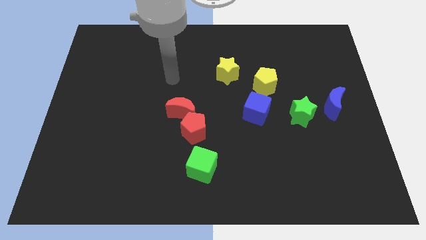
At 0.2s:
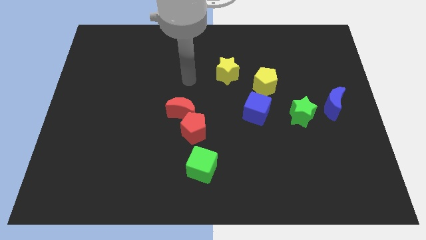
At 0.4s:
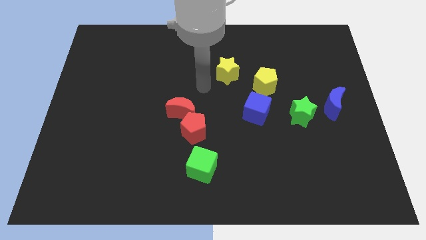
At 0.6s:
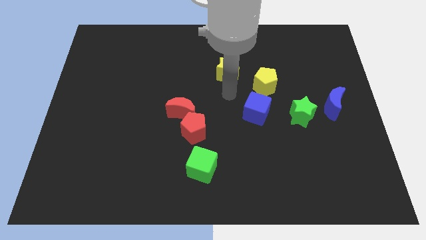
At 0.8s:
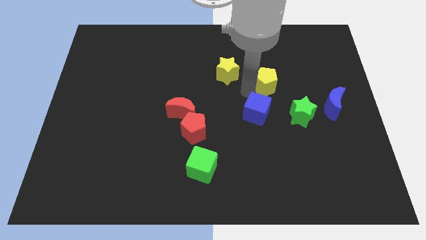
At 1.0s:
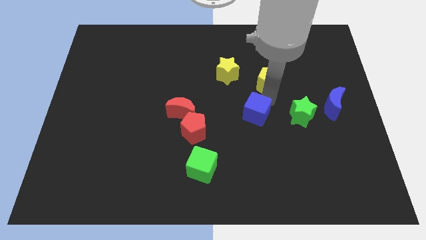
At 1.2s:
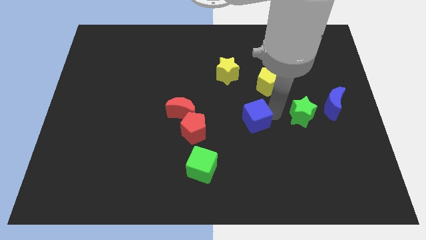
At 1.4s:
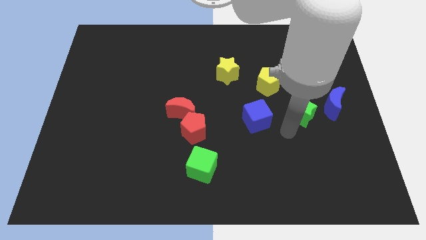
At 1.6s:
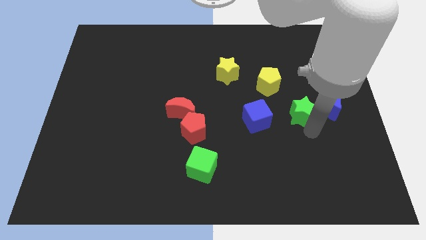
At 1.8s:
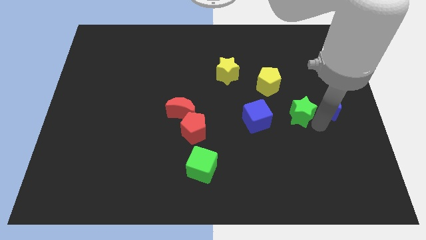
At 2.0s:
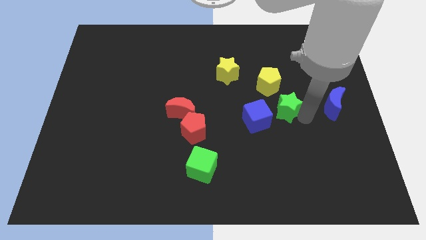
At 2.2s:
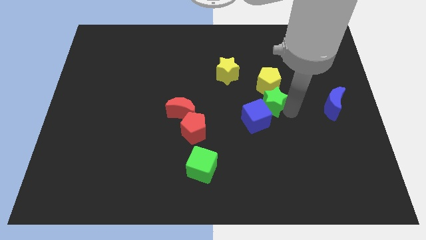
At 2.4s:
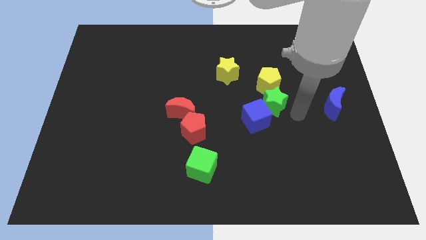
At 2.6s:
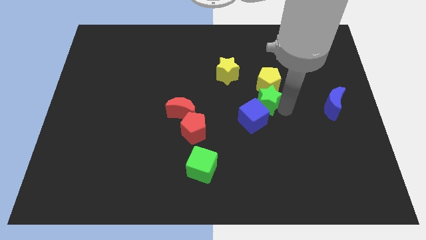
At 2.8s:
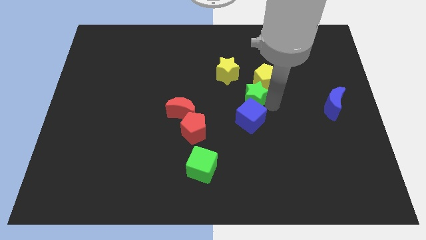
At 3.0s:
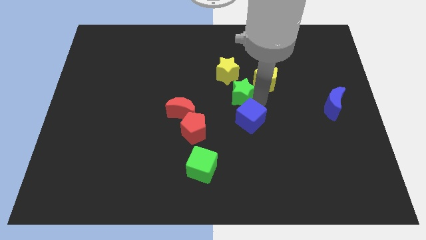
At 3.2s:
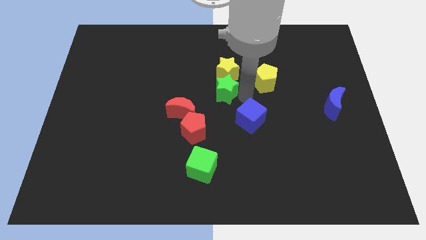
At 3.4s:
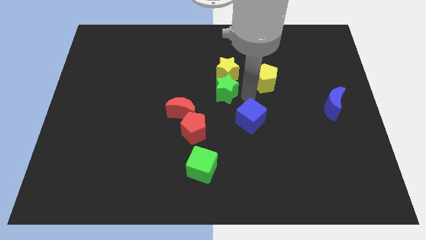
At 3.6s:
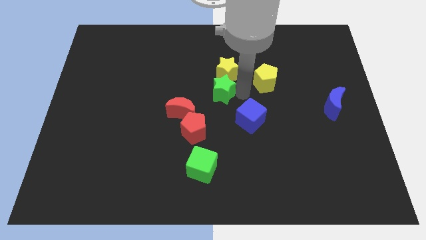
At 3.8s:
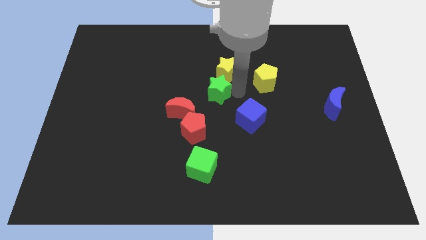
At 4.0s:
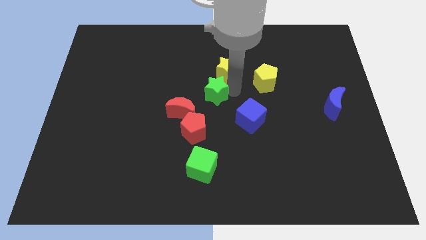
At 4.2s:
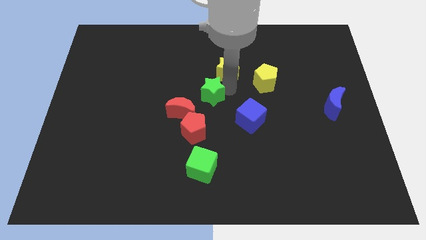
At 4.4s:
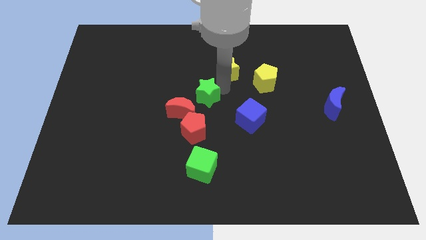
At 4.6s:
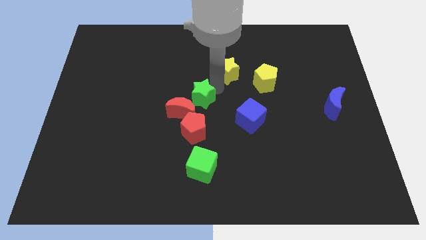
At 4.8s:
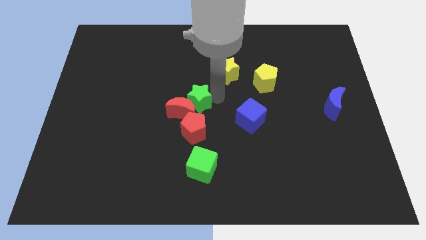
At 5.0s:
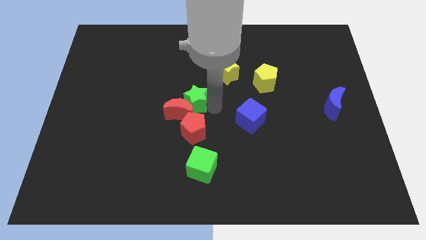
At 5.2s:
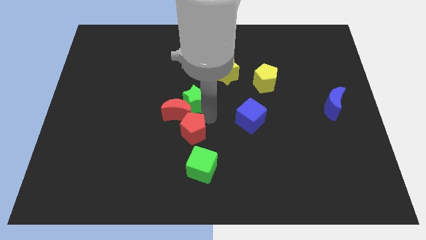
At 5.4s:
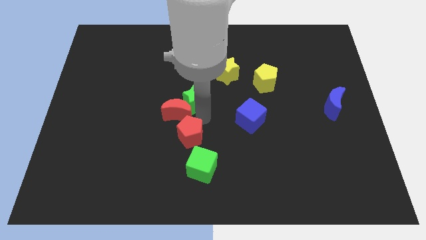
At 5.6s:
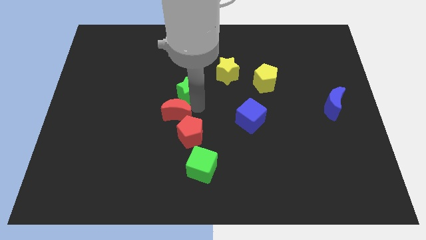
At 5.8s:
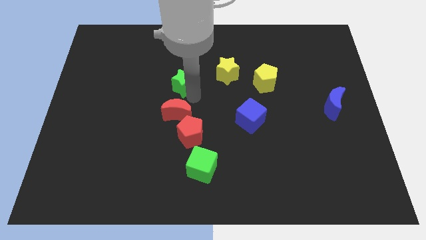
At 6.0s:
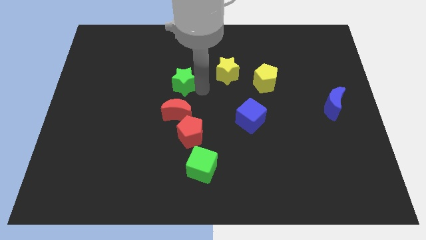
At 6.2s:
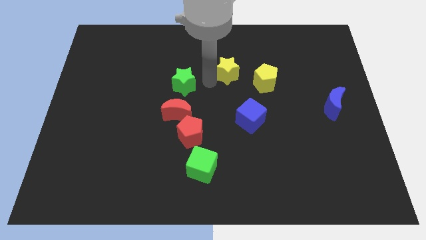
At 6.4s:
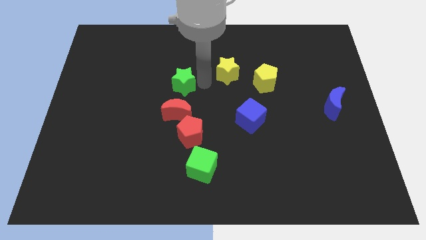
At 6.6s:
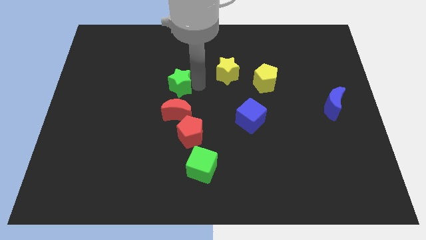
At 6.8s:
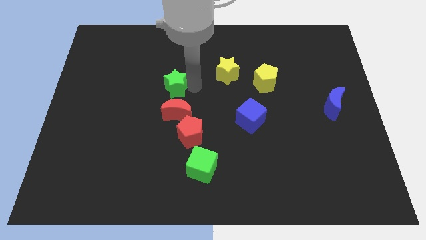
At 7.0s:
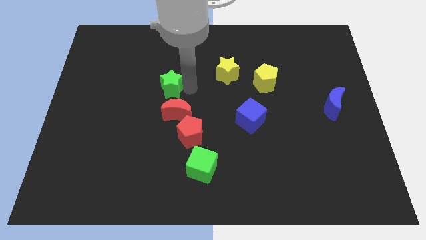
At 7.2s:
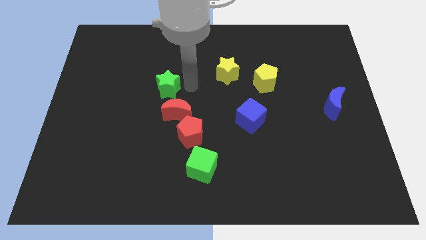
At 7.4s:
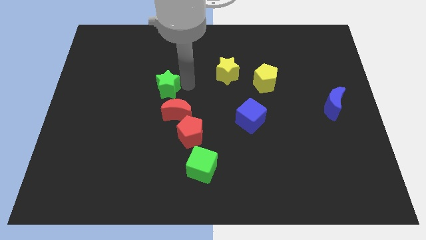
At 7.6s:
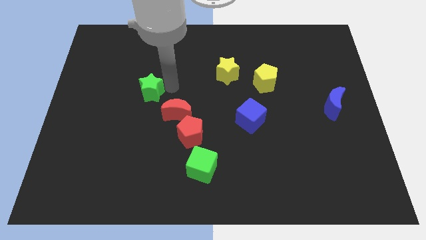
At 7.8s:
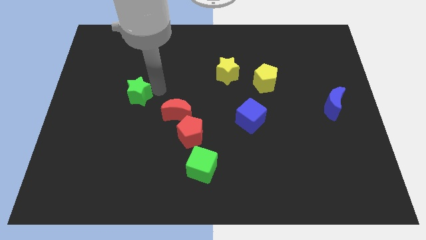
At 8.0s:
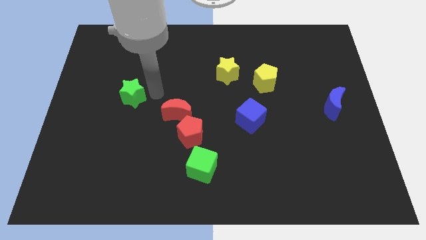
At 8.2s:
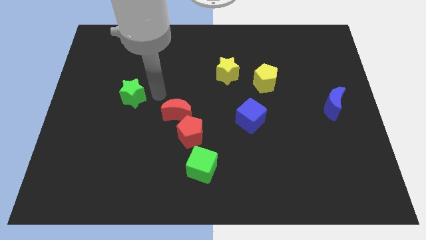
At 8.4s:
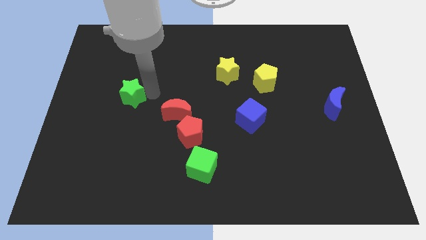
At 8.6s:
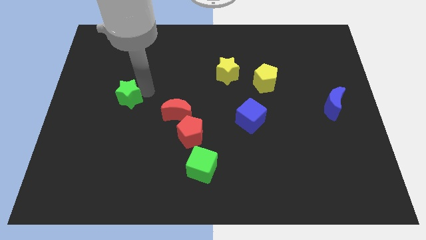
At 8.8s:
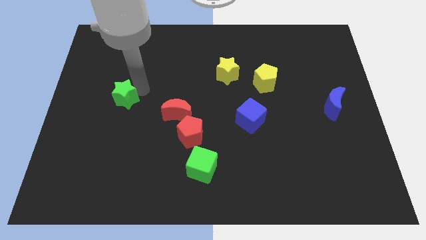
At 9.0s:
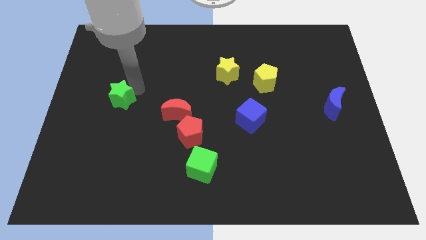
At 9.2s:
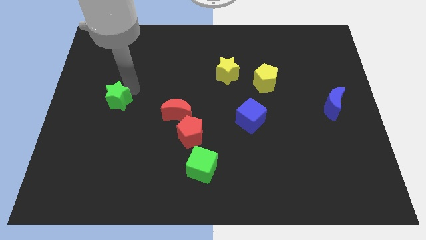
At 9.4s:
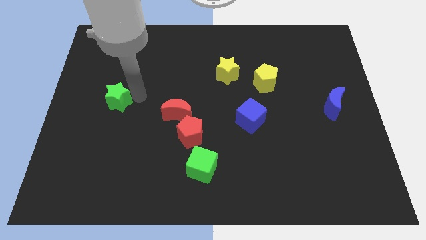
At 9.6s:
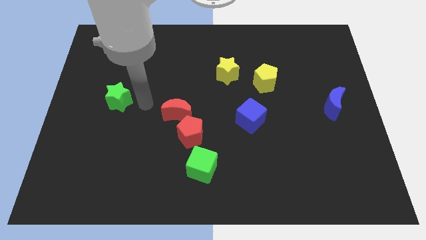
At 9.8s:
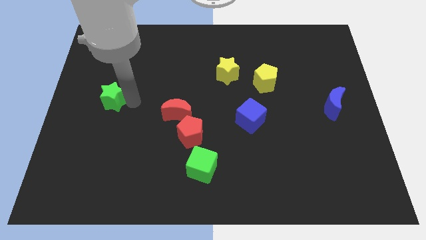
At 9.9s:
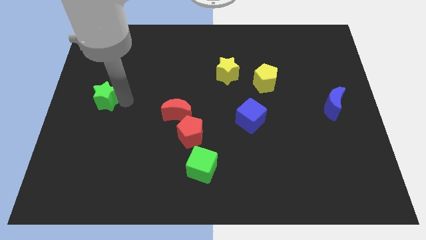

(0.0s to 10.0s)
push the green star to the left side of the board

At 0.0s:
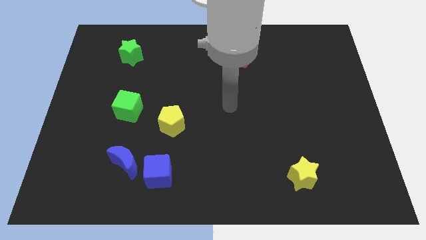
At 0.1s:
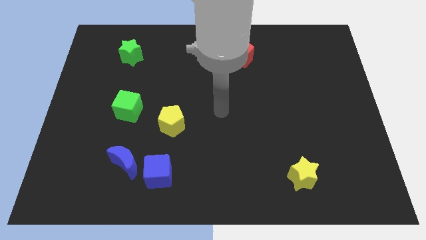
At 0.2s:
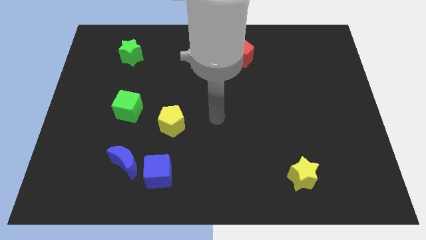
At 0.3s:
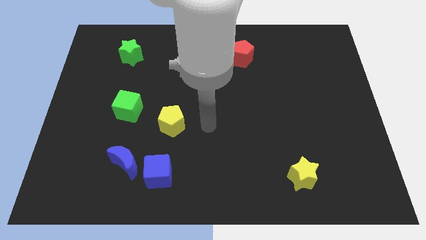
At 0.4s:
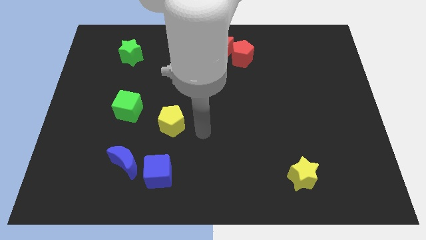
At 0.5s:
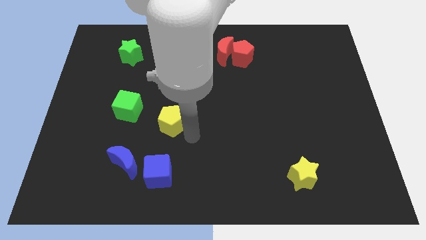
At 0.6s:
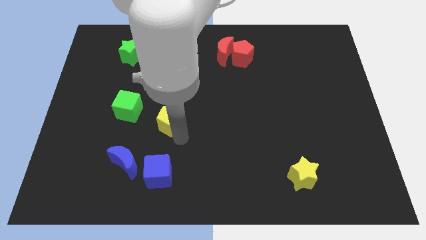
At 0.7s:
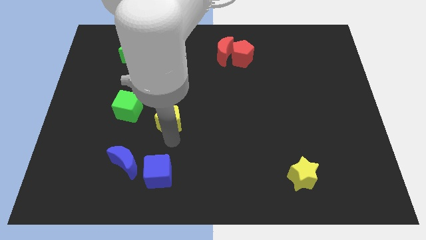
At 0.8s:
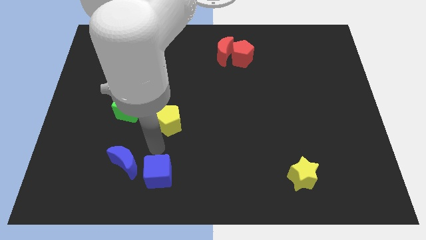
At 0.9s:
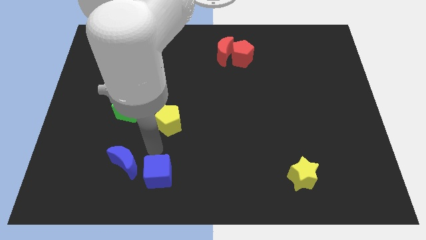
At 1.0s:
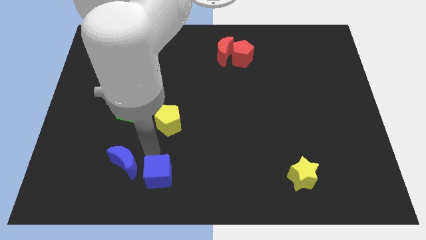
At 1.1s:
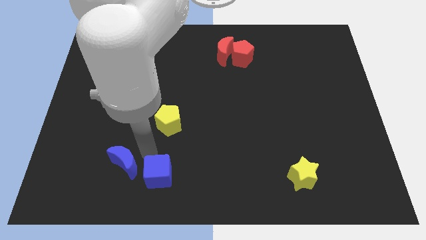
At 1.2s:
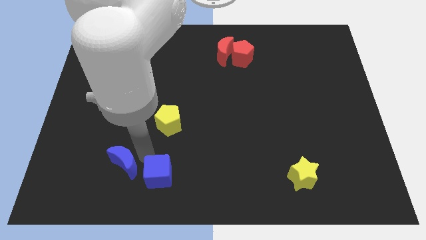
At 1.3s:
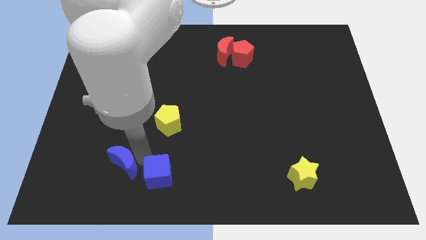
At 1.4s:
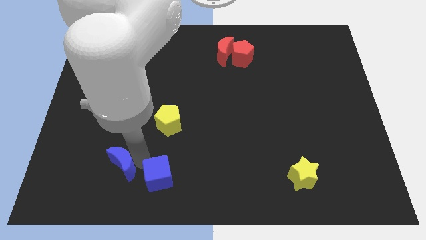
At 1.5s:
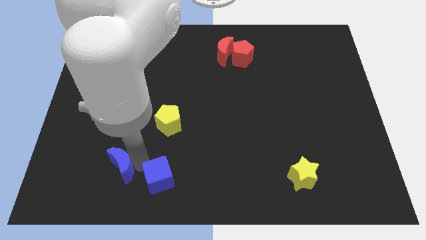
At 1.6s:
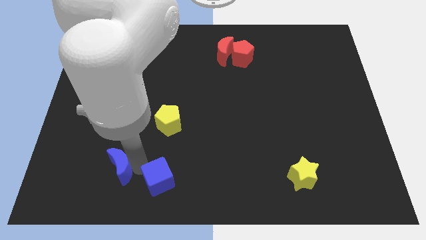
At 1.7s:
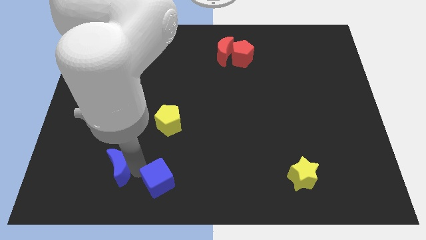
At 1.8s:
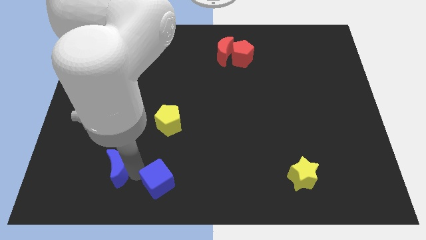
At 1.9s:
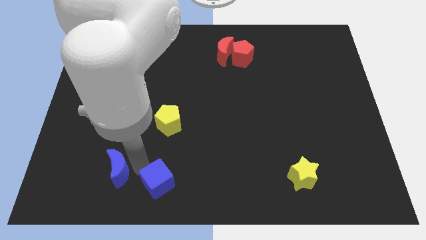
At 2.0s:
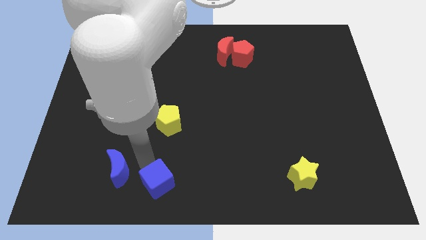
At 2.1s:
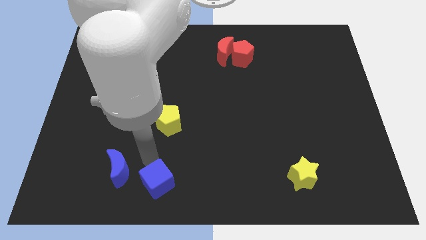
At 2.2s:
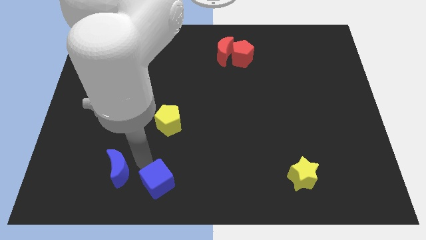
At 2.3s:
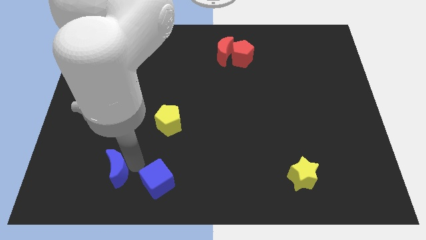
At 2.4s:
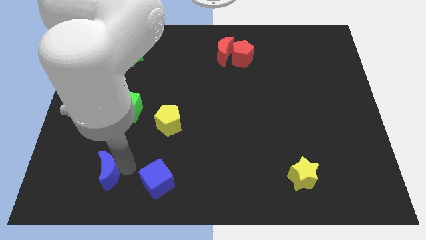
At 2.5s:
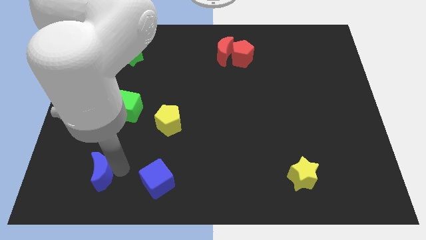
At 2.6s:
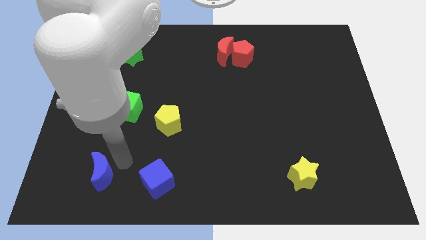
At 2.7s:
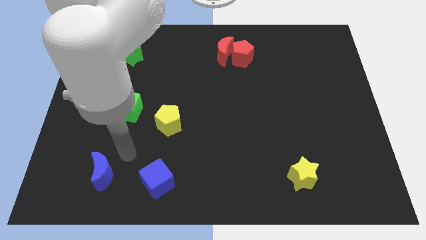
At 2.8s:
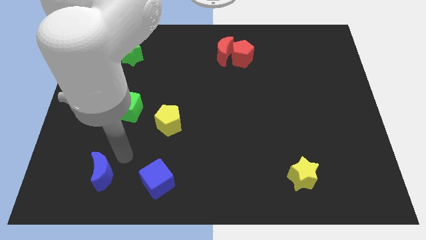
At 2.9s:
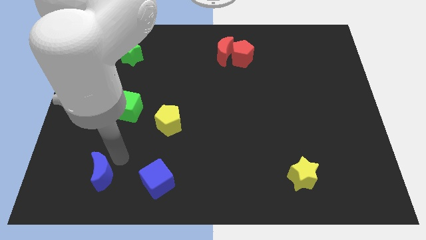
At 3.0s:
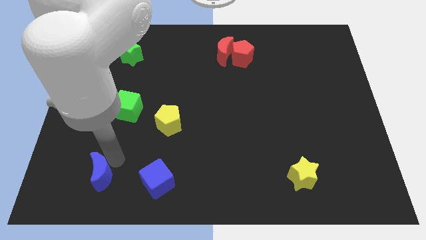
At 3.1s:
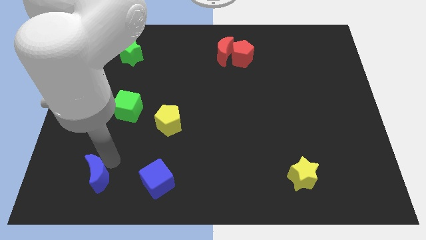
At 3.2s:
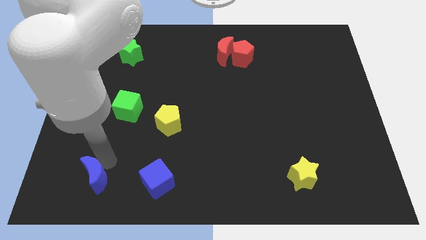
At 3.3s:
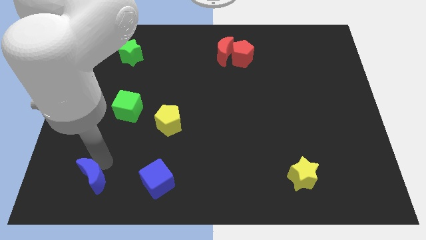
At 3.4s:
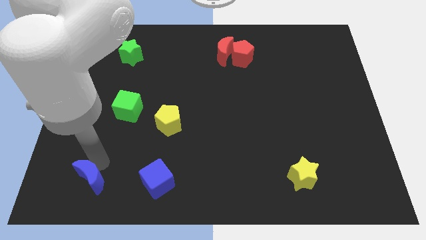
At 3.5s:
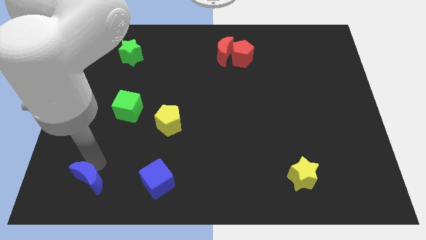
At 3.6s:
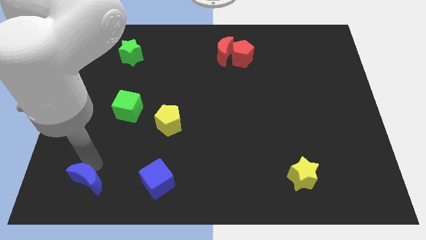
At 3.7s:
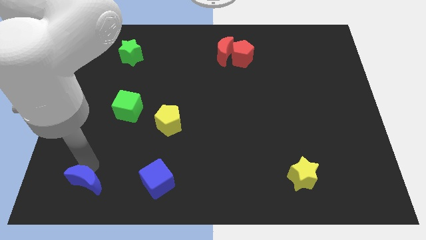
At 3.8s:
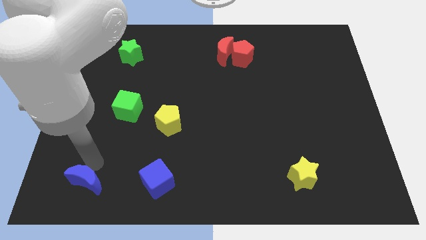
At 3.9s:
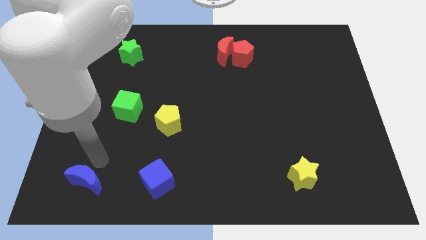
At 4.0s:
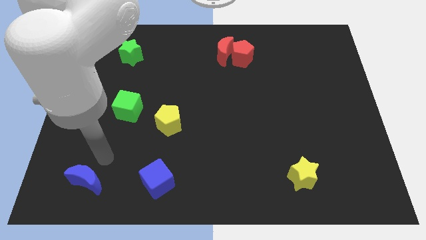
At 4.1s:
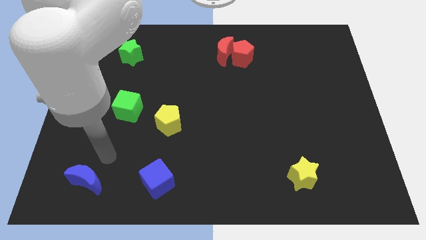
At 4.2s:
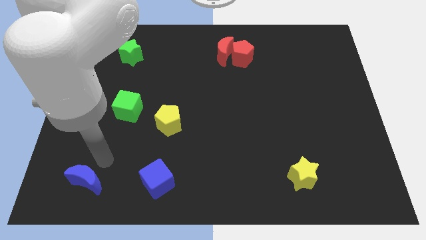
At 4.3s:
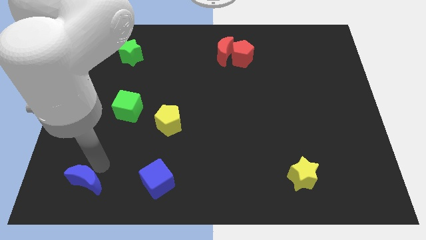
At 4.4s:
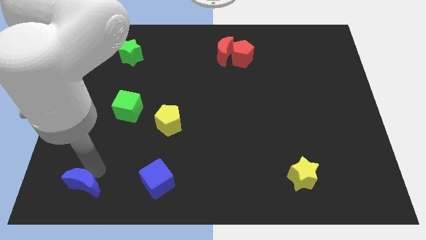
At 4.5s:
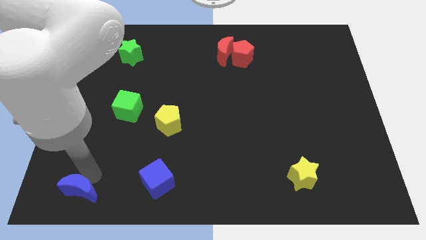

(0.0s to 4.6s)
move the blue moon to the bottom left corner
